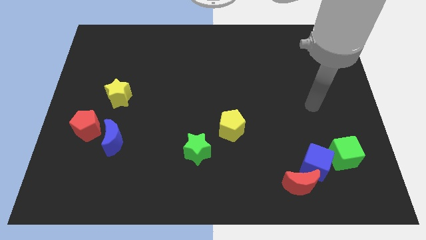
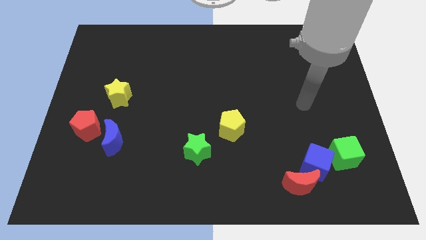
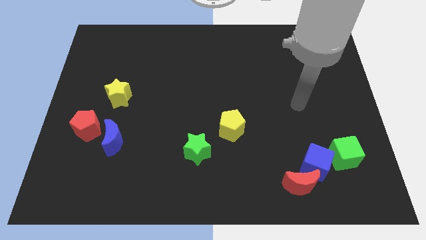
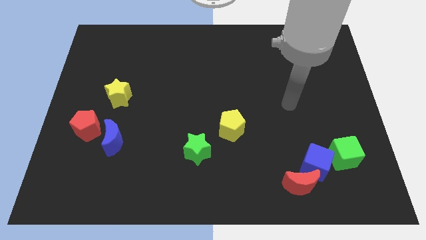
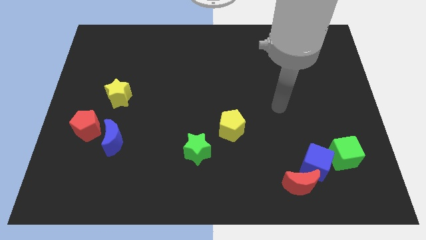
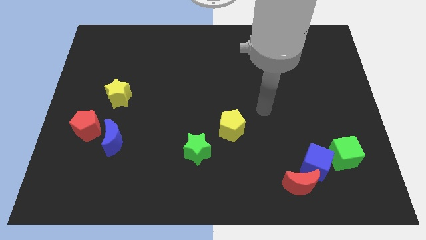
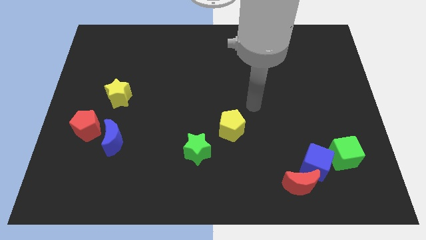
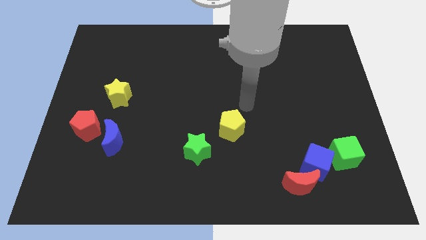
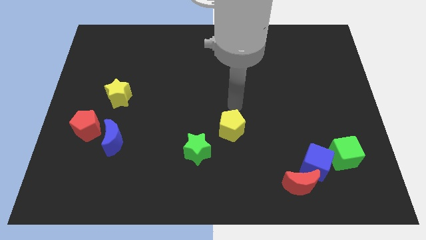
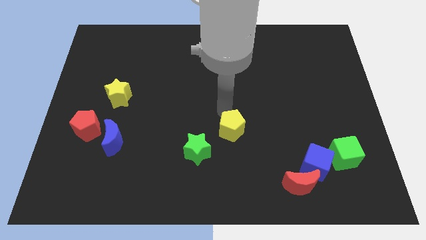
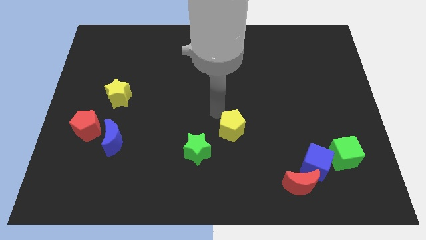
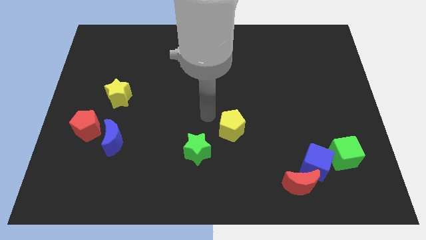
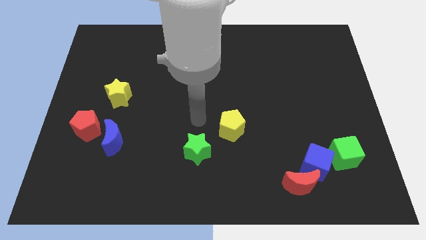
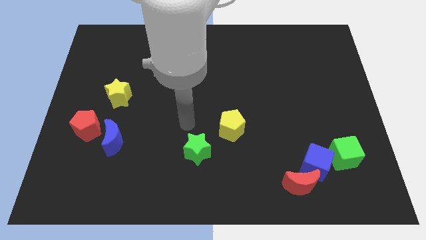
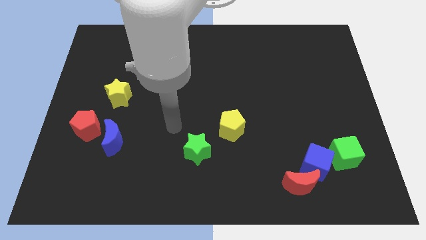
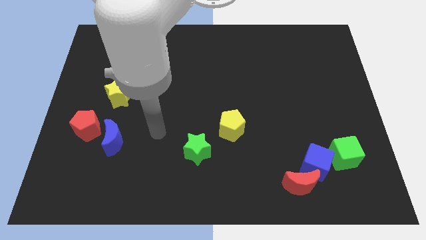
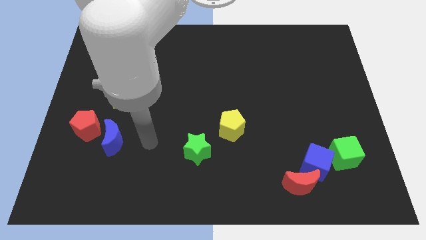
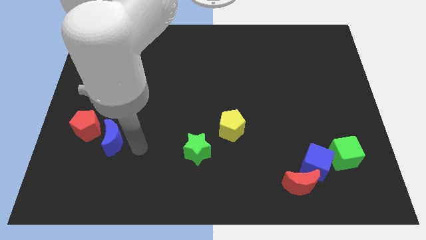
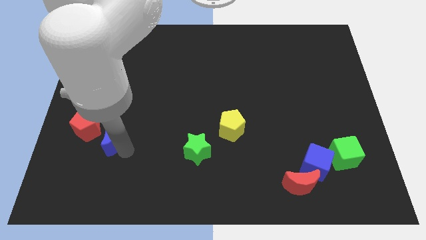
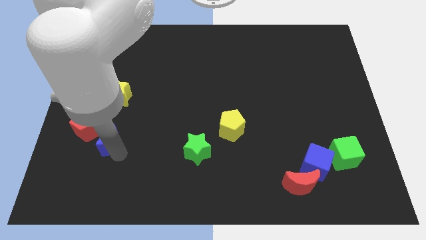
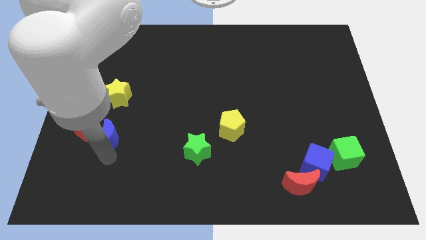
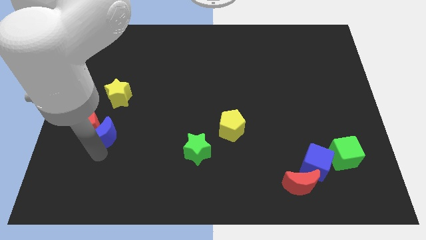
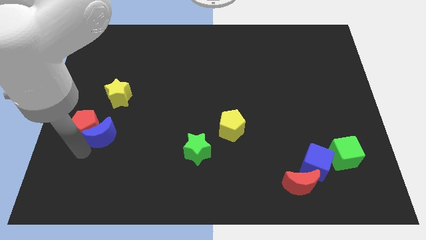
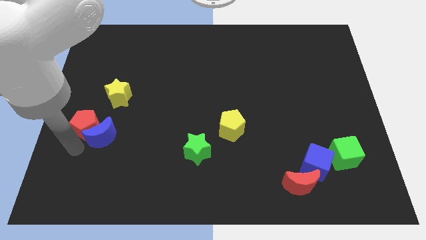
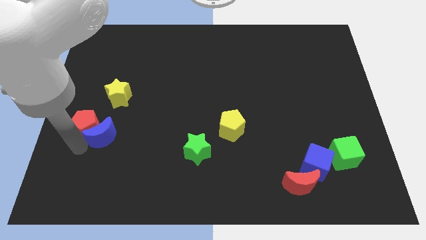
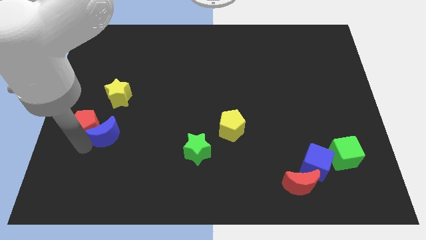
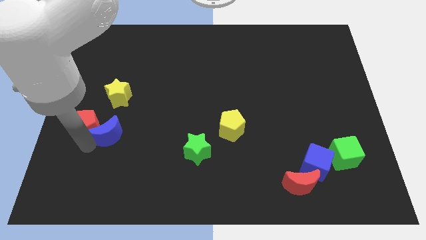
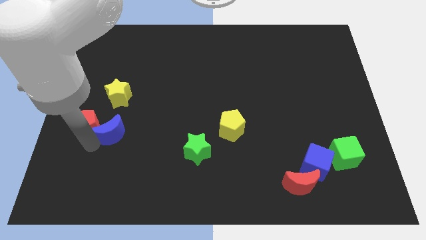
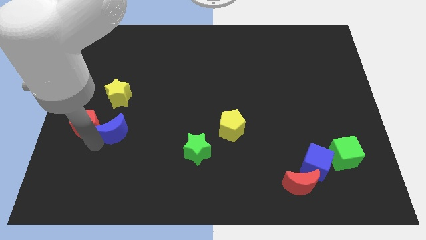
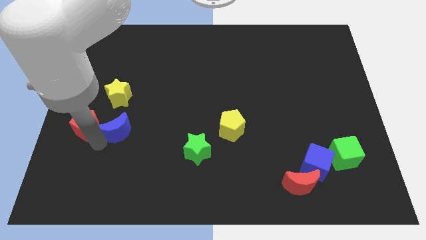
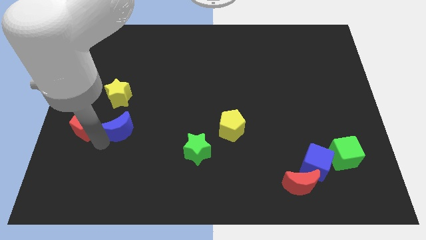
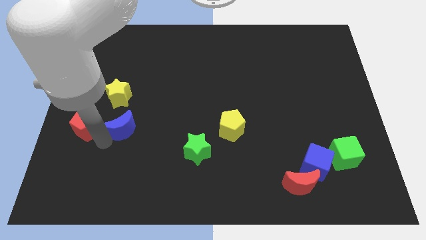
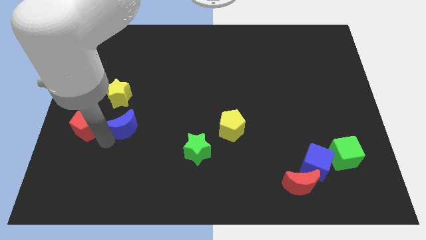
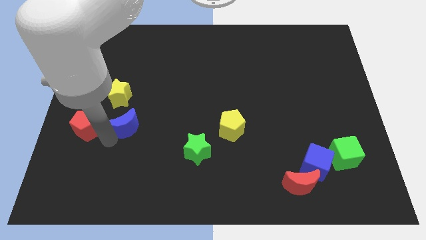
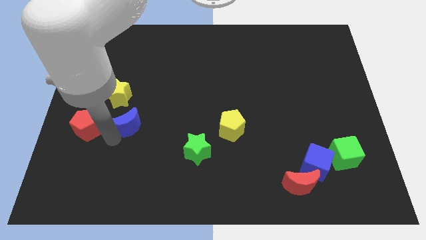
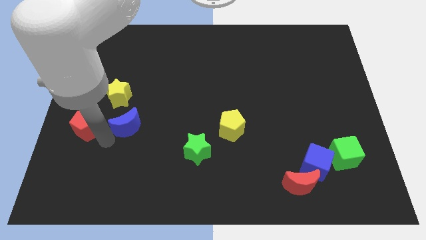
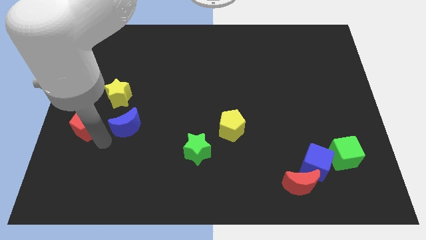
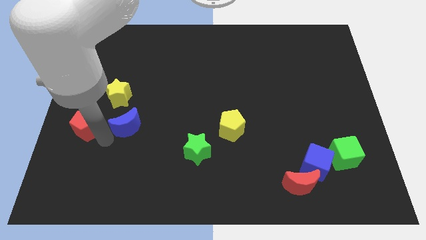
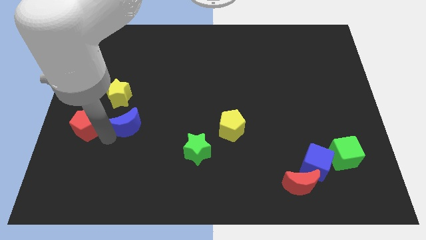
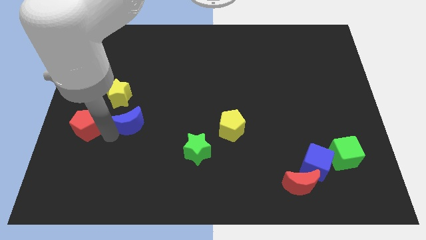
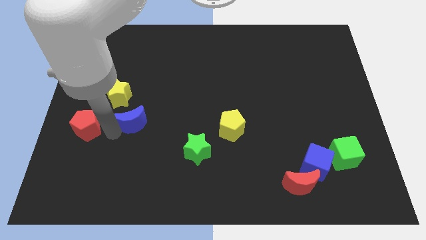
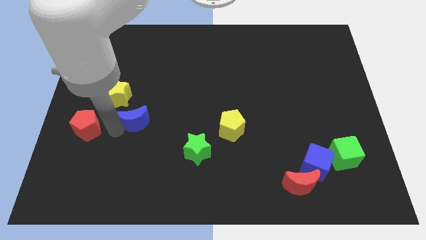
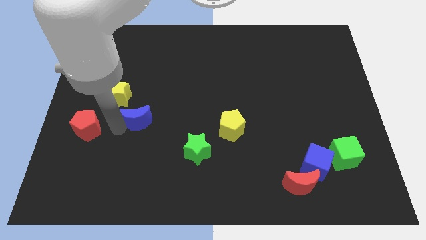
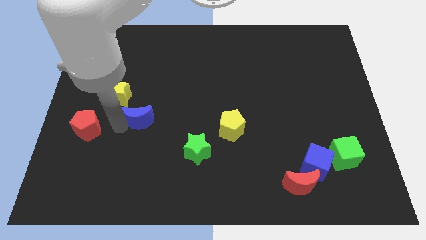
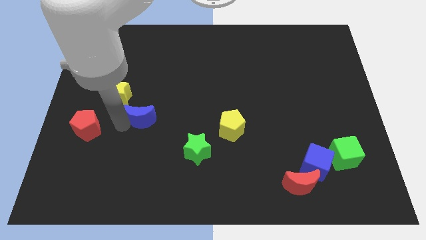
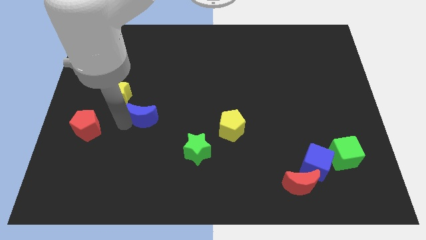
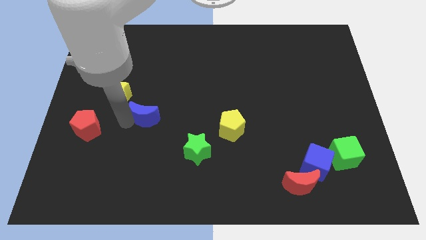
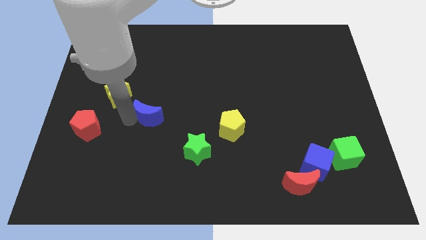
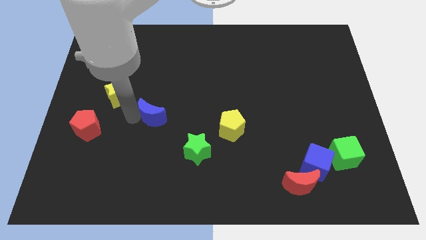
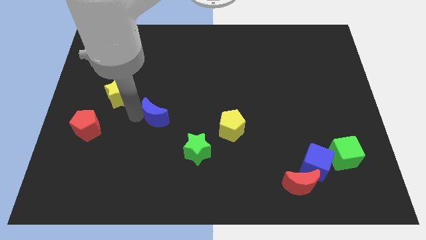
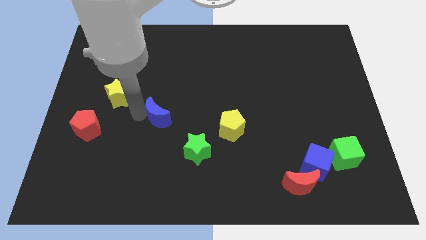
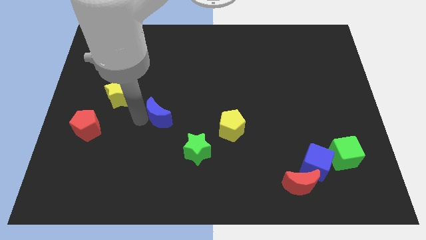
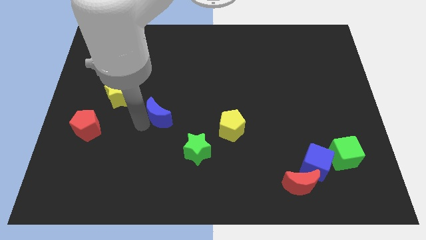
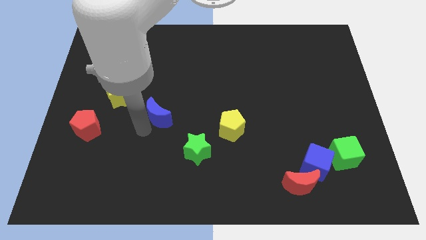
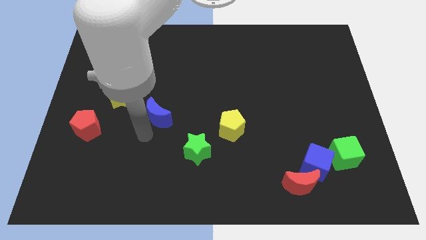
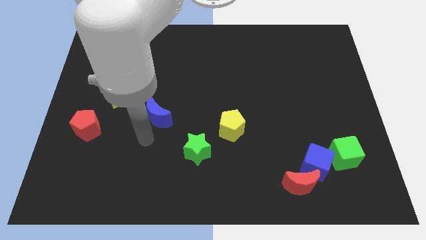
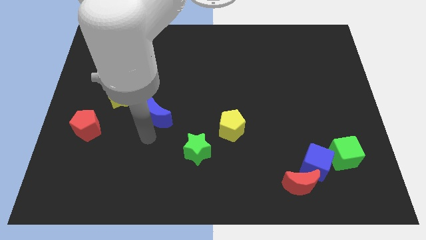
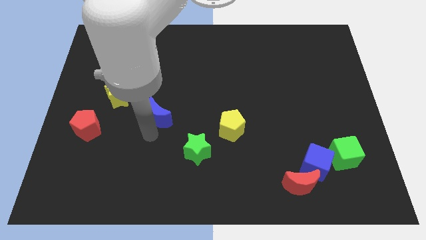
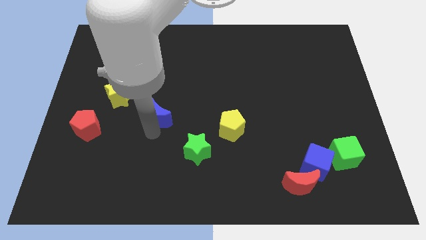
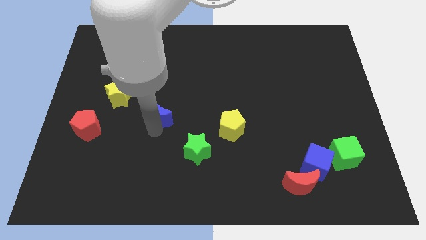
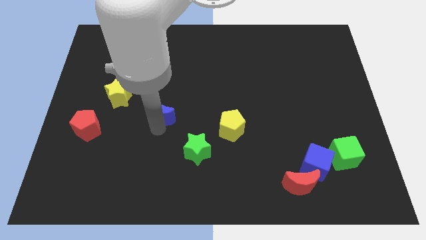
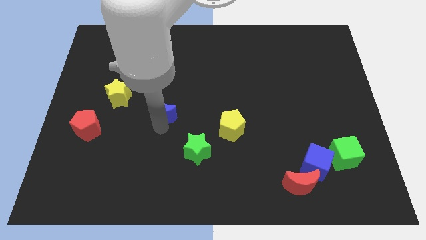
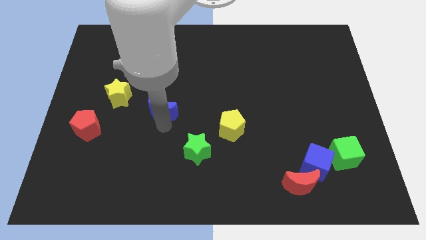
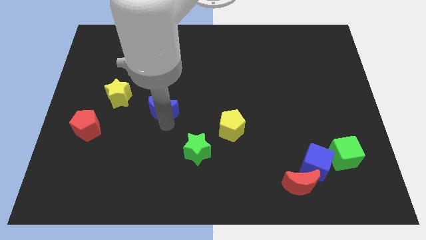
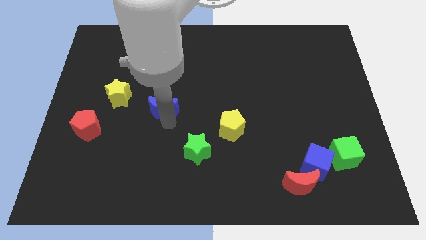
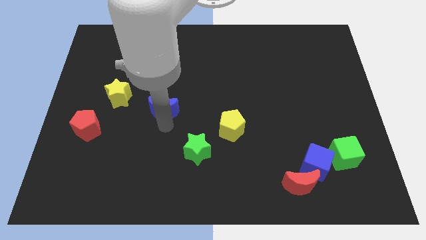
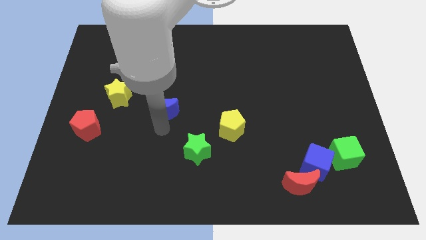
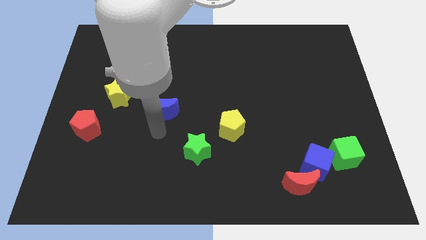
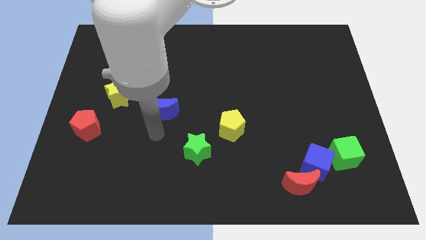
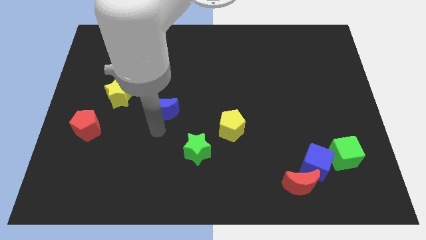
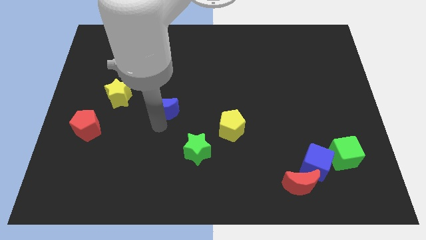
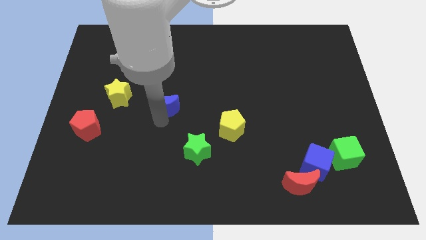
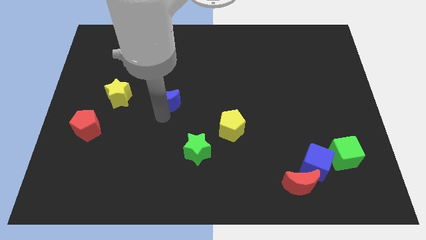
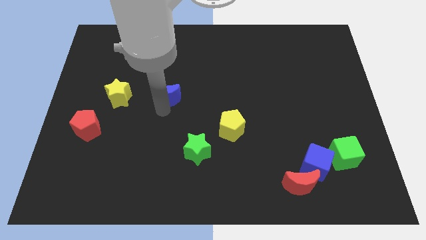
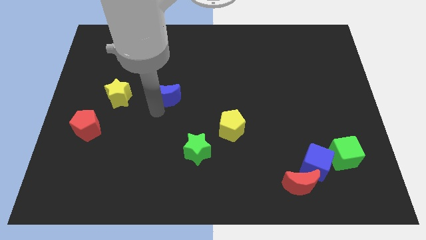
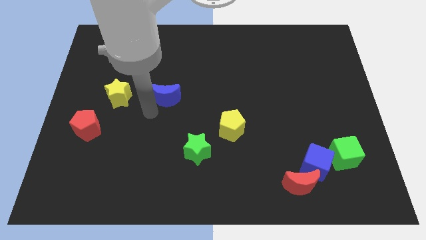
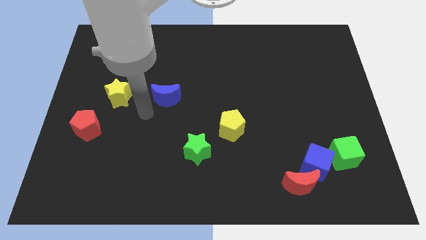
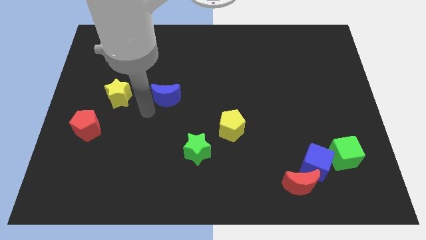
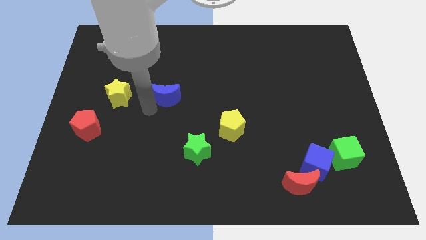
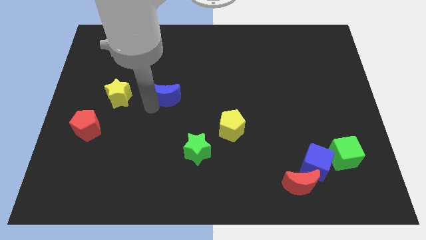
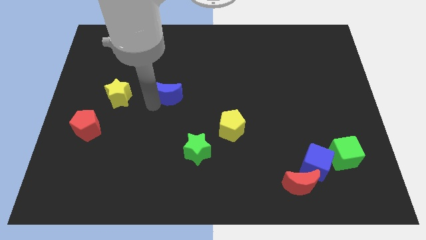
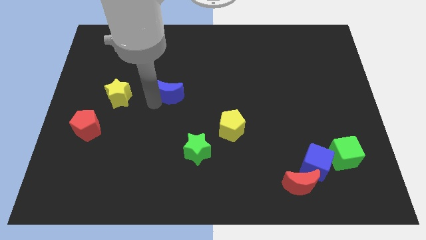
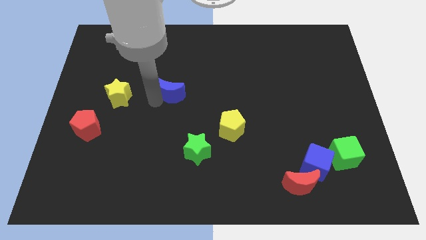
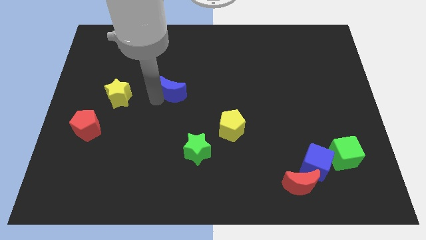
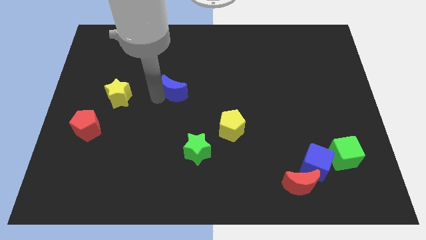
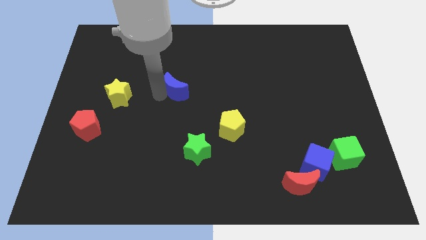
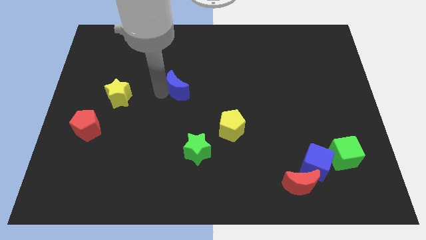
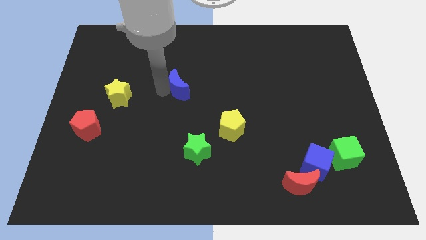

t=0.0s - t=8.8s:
slide the blue moon upwards and then right
